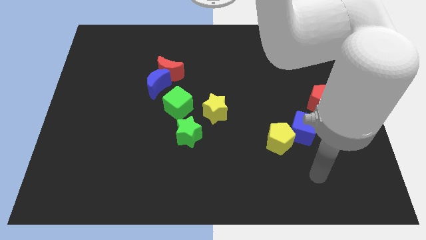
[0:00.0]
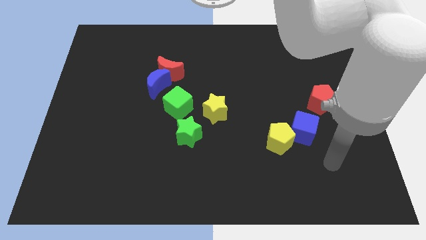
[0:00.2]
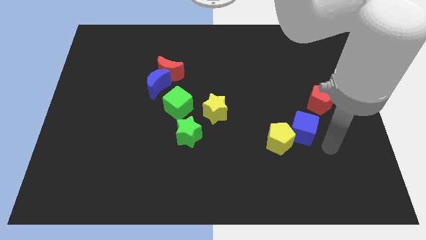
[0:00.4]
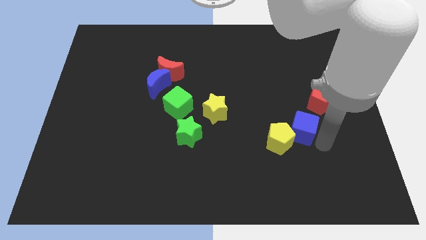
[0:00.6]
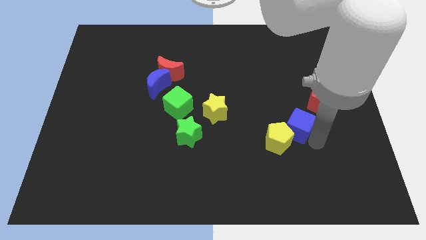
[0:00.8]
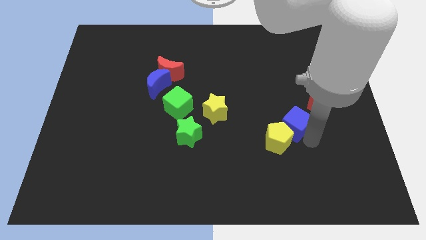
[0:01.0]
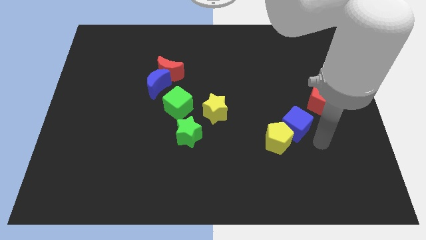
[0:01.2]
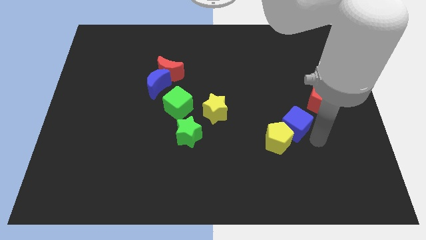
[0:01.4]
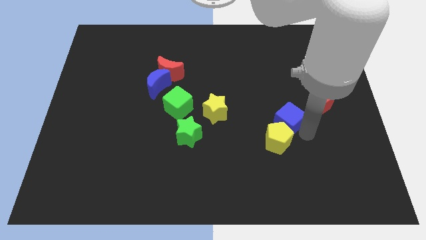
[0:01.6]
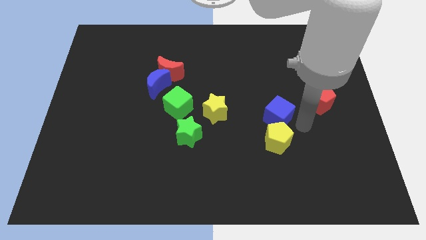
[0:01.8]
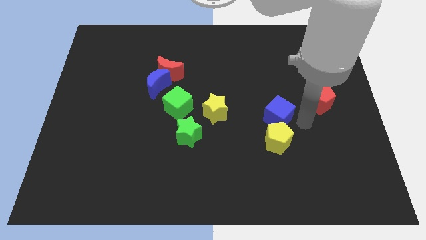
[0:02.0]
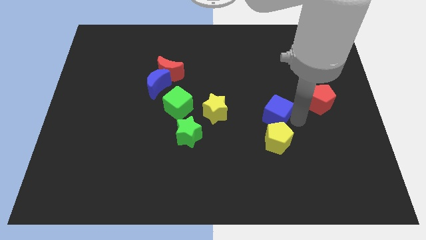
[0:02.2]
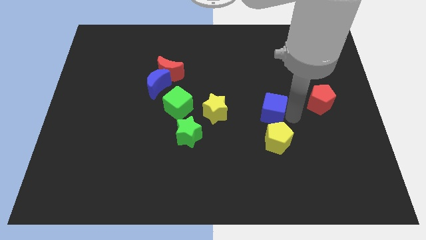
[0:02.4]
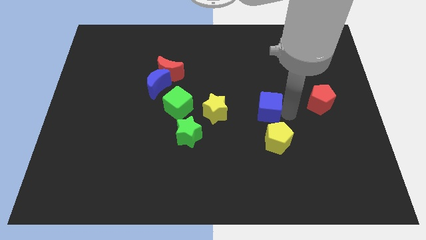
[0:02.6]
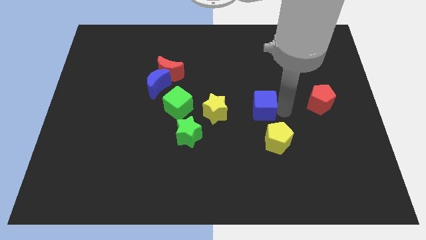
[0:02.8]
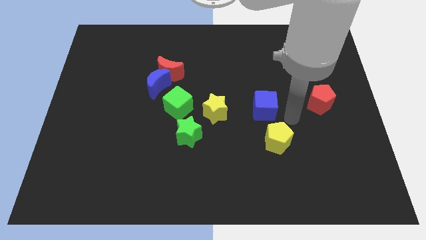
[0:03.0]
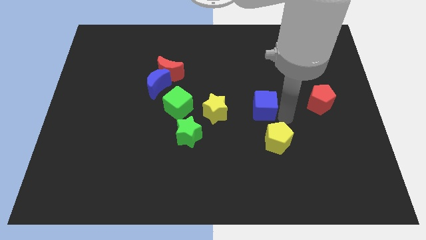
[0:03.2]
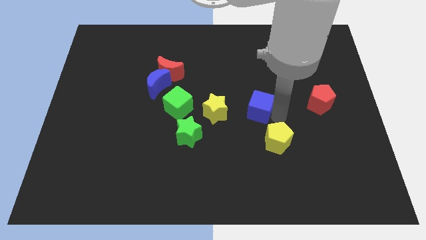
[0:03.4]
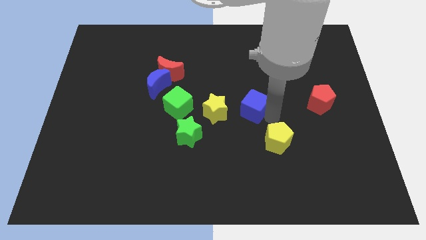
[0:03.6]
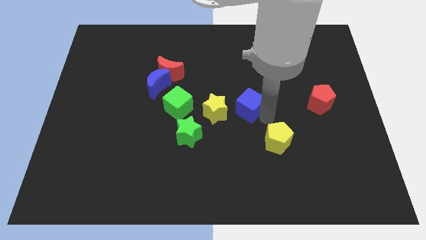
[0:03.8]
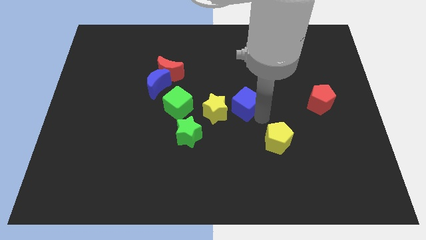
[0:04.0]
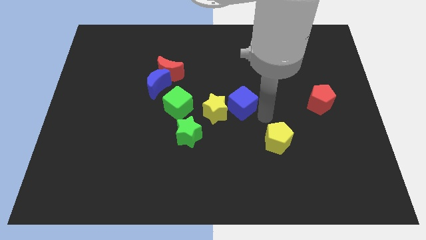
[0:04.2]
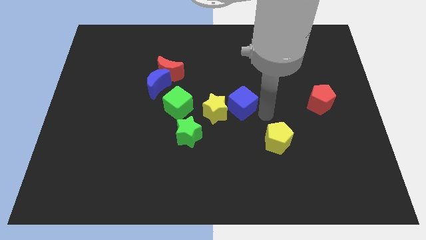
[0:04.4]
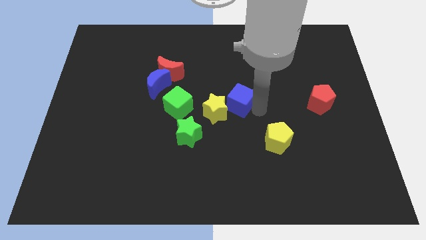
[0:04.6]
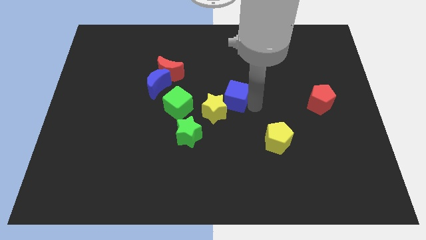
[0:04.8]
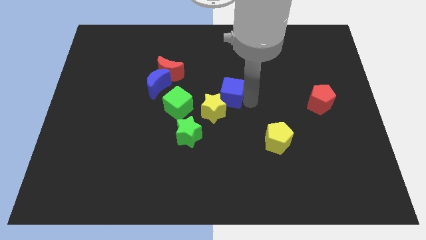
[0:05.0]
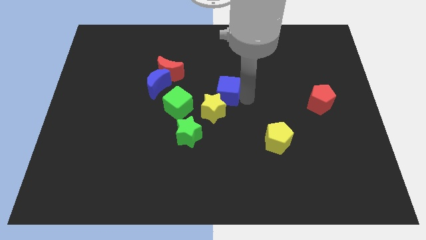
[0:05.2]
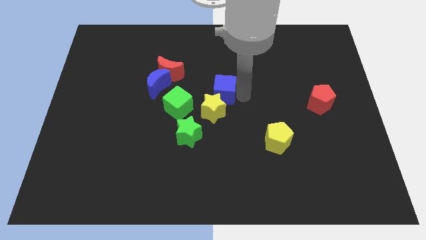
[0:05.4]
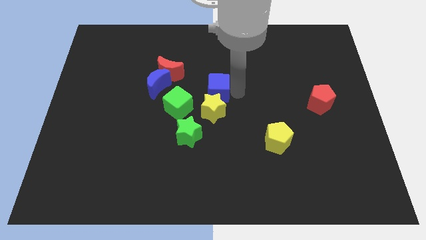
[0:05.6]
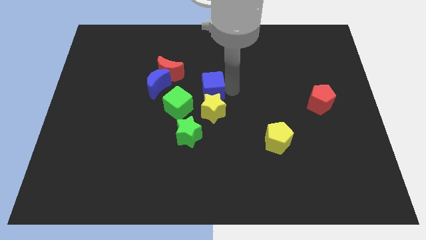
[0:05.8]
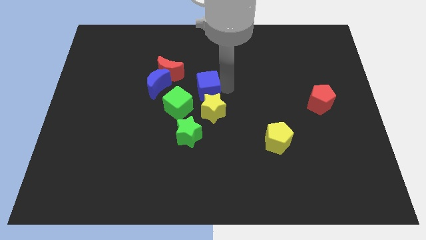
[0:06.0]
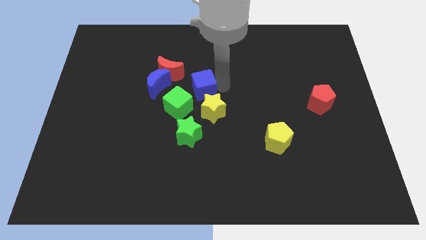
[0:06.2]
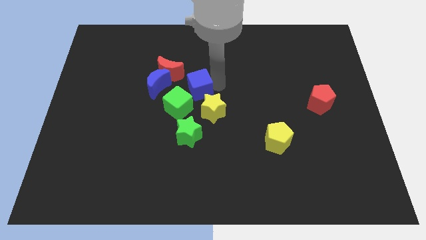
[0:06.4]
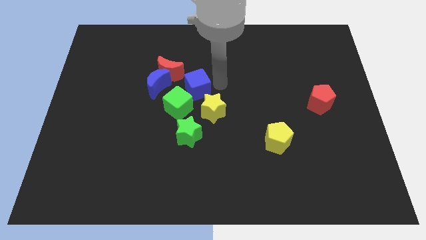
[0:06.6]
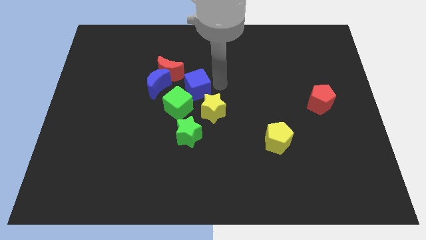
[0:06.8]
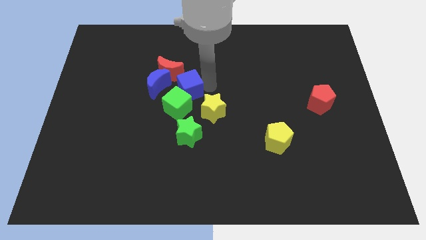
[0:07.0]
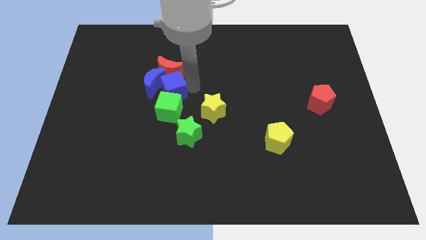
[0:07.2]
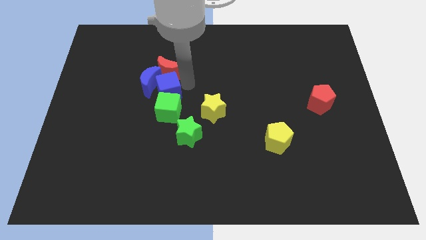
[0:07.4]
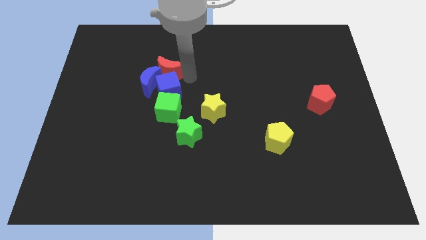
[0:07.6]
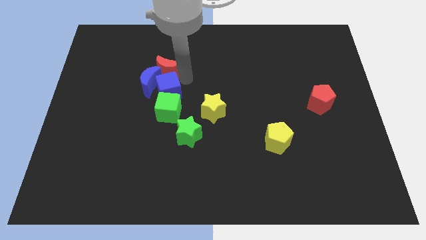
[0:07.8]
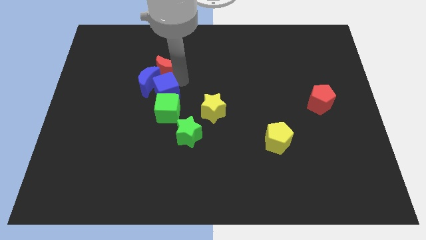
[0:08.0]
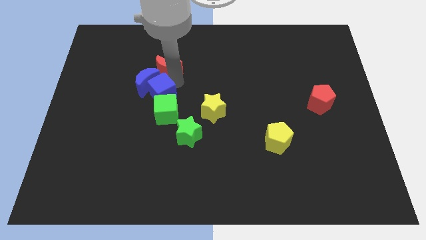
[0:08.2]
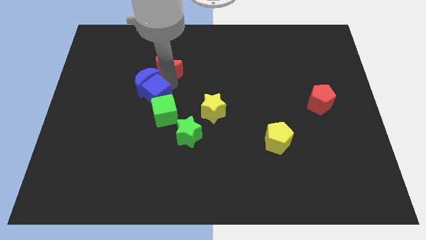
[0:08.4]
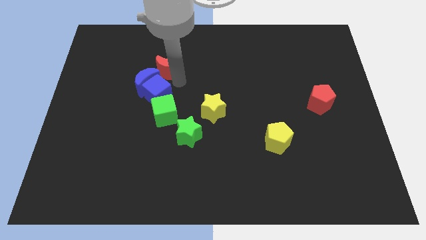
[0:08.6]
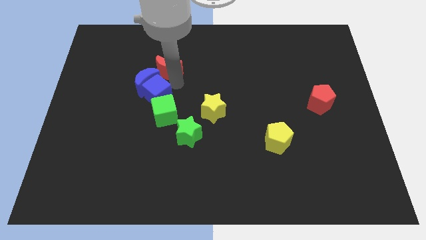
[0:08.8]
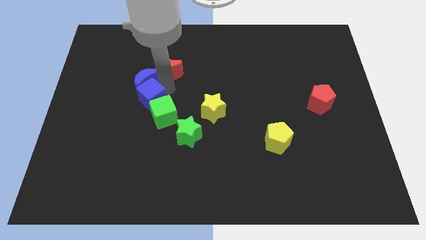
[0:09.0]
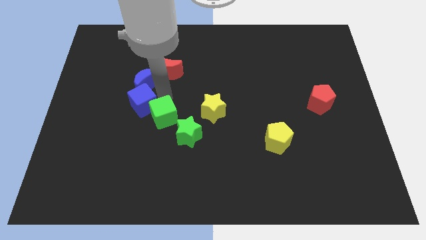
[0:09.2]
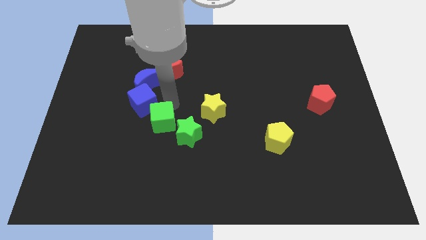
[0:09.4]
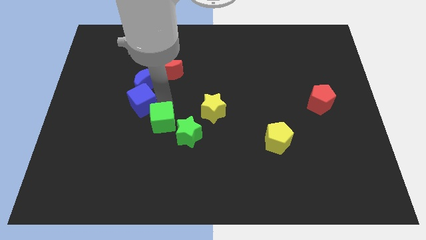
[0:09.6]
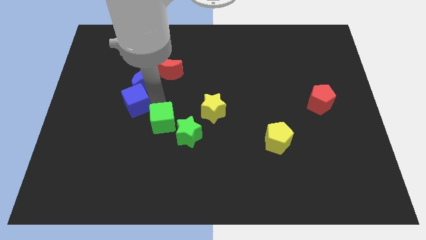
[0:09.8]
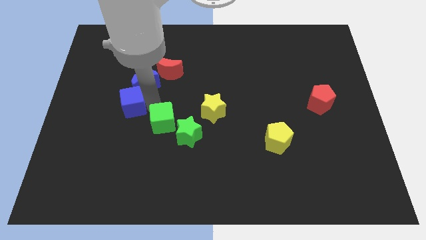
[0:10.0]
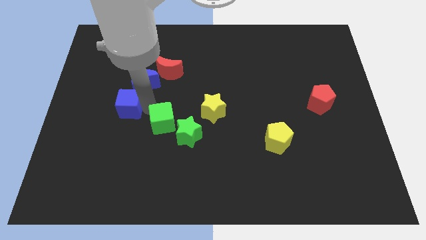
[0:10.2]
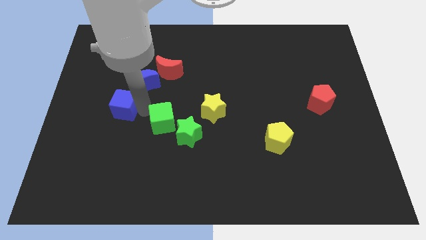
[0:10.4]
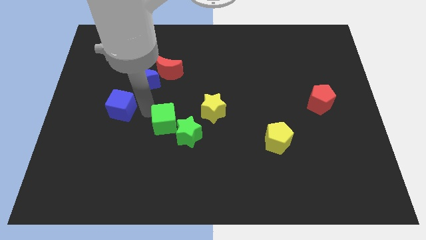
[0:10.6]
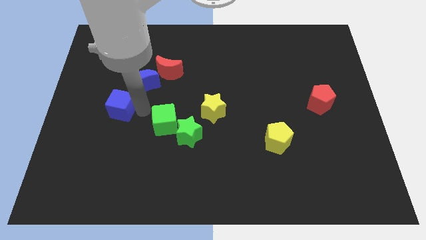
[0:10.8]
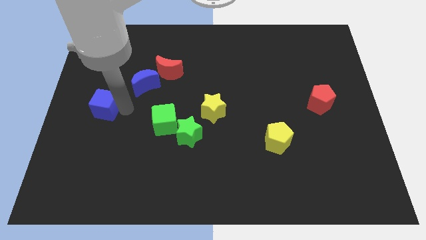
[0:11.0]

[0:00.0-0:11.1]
push the blue cube to the left side

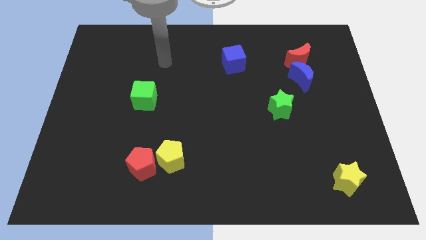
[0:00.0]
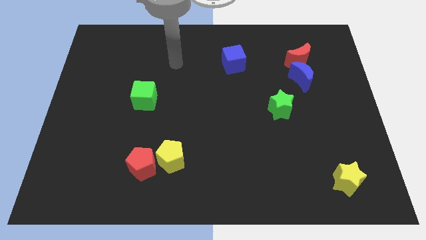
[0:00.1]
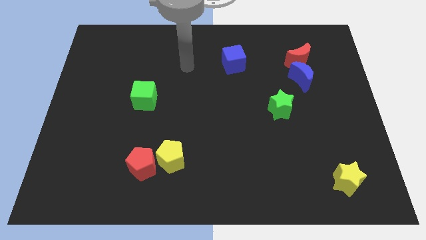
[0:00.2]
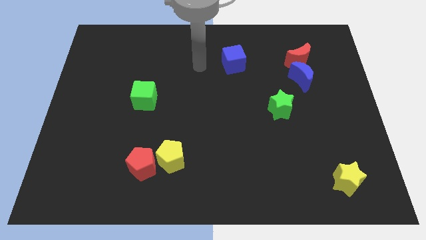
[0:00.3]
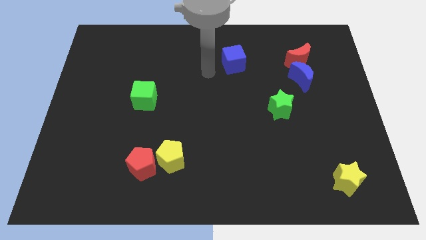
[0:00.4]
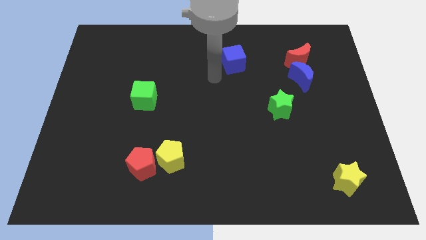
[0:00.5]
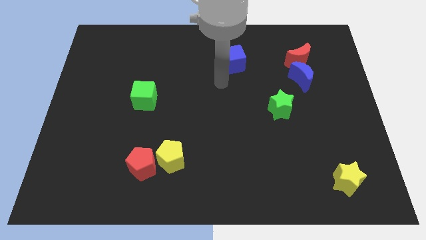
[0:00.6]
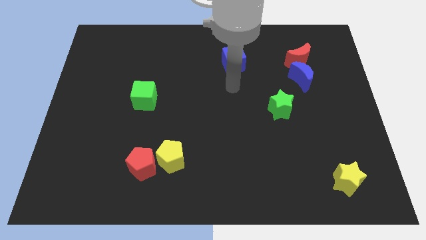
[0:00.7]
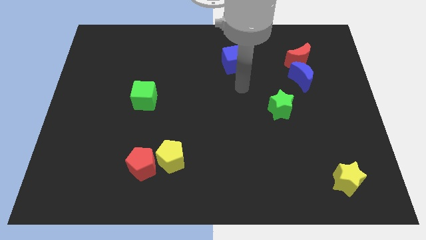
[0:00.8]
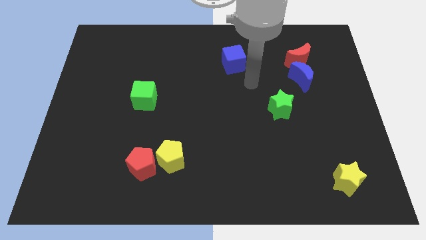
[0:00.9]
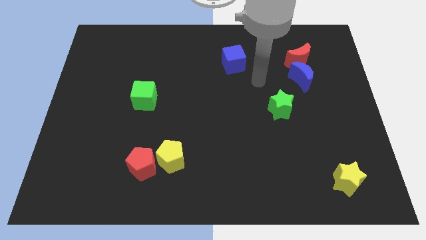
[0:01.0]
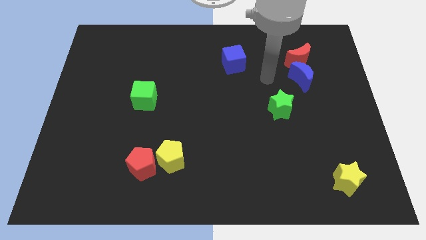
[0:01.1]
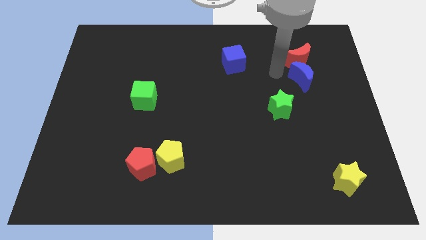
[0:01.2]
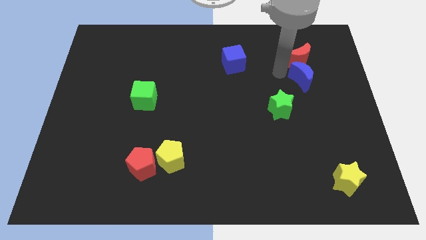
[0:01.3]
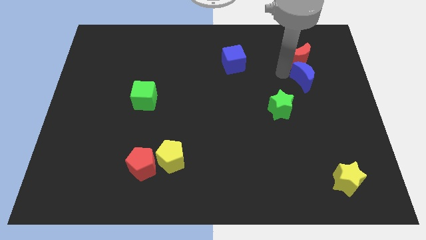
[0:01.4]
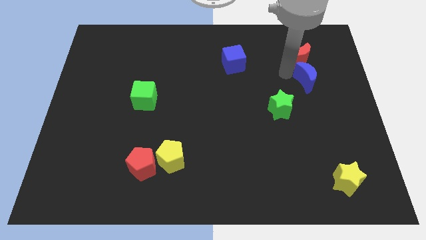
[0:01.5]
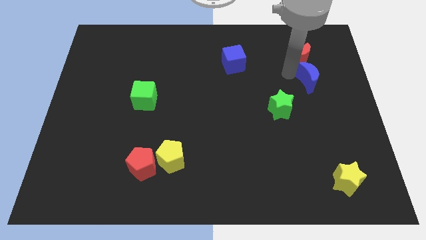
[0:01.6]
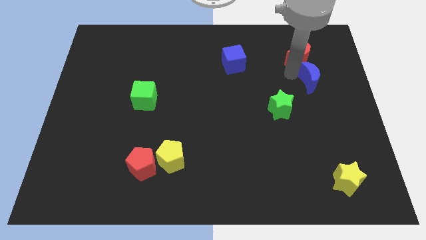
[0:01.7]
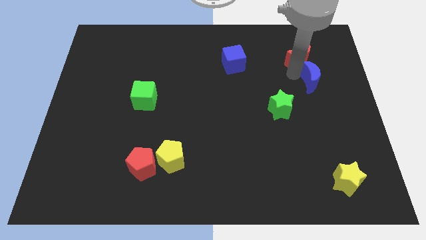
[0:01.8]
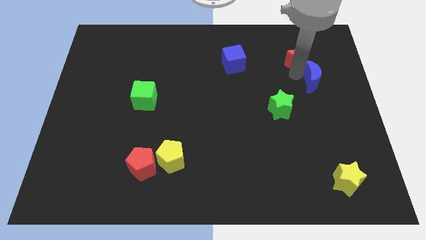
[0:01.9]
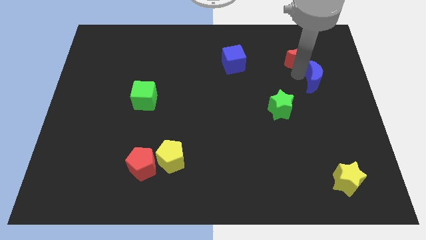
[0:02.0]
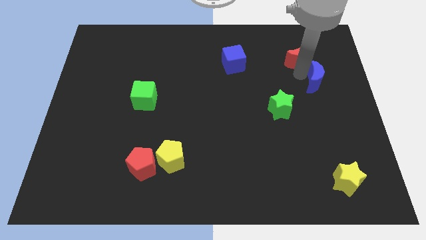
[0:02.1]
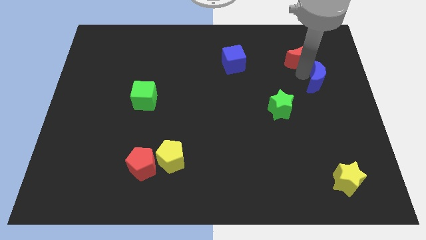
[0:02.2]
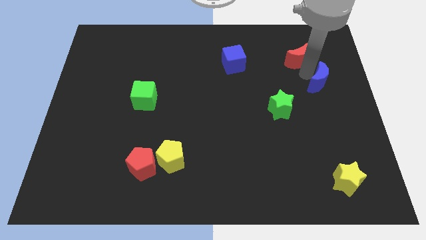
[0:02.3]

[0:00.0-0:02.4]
push the blue moon to the right side
